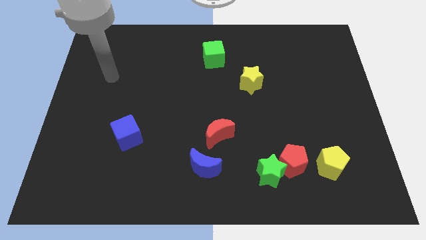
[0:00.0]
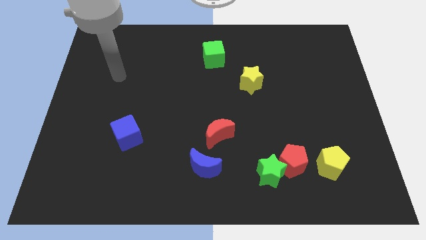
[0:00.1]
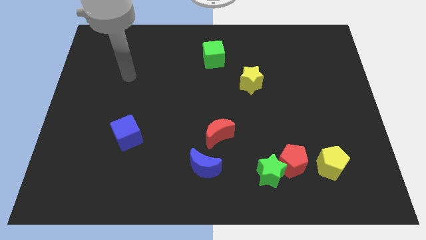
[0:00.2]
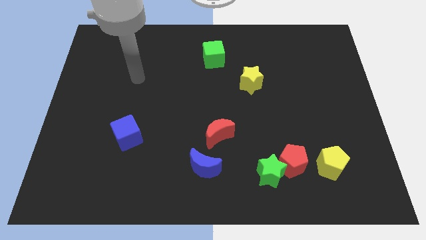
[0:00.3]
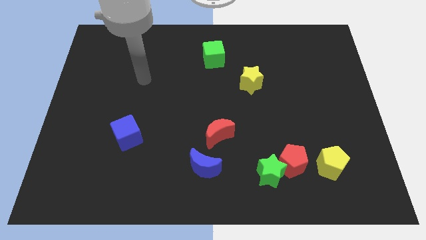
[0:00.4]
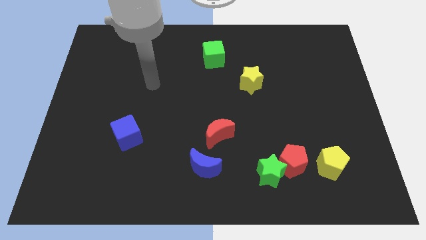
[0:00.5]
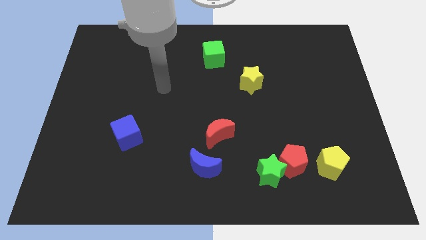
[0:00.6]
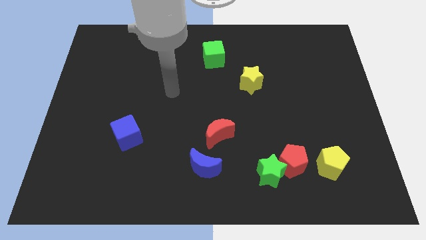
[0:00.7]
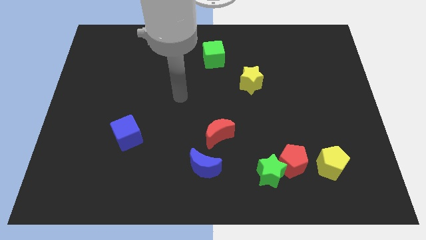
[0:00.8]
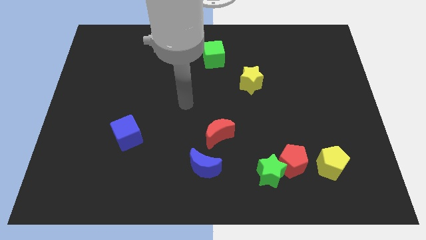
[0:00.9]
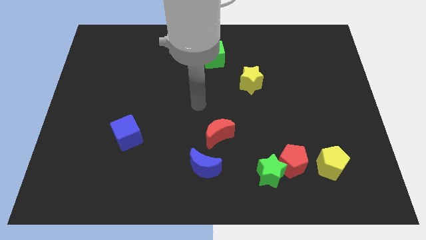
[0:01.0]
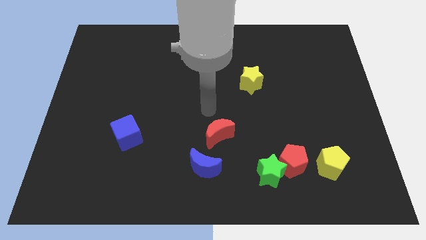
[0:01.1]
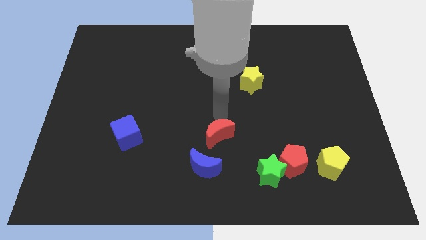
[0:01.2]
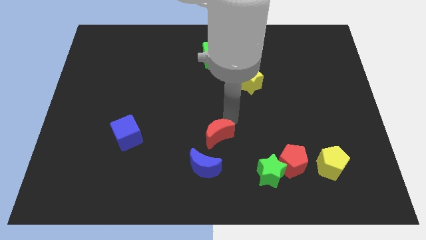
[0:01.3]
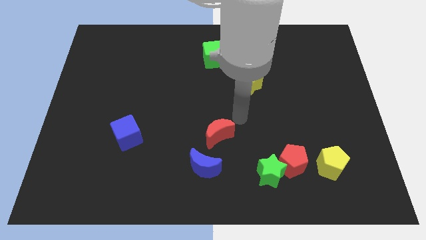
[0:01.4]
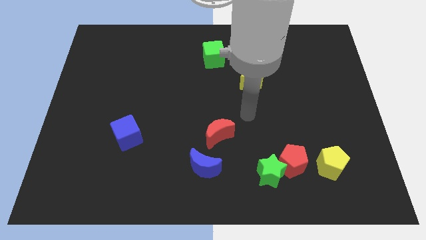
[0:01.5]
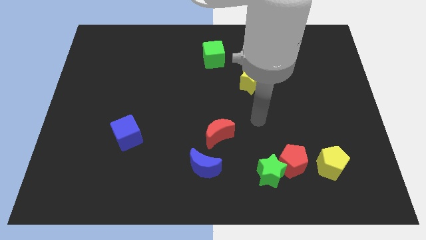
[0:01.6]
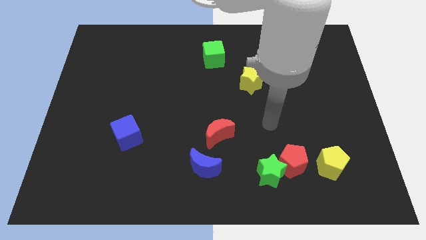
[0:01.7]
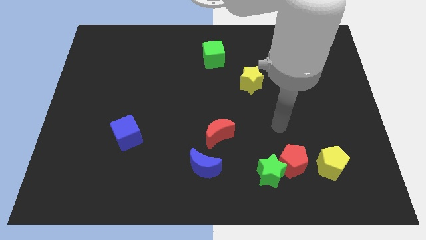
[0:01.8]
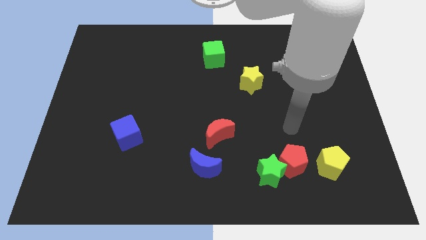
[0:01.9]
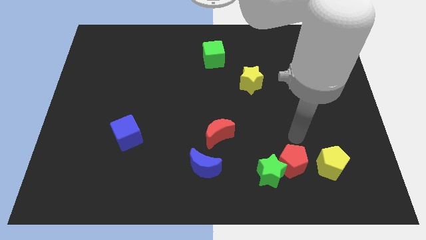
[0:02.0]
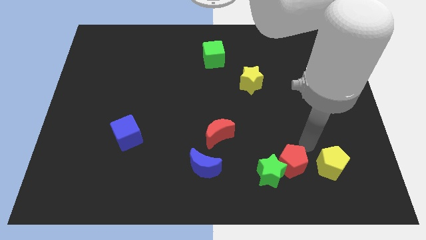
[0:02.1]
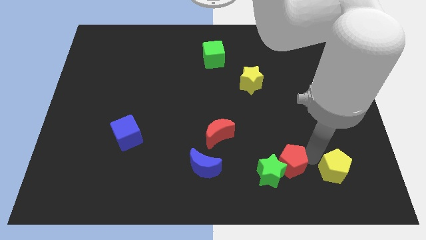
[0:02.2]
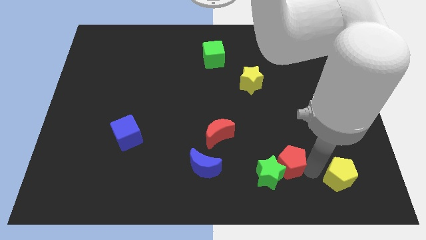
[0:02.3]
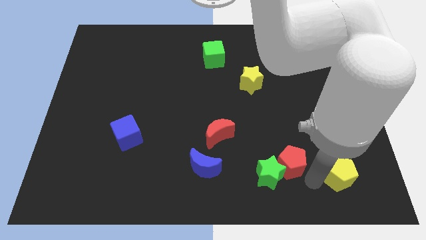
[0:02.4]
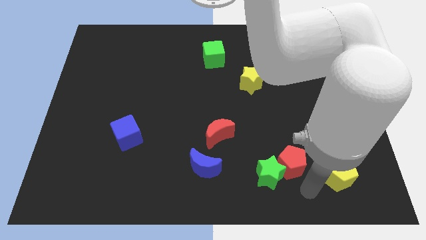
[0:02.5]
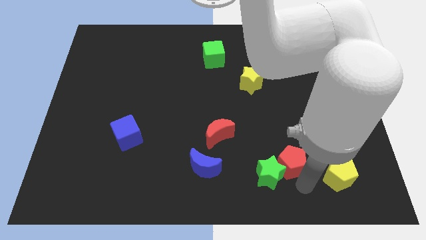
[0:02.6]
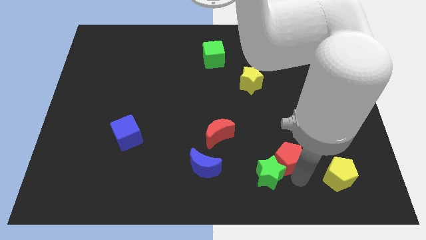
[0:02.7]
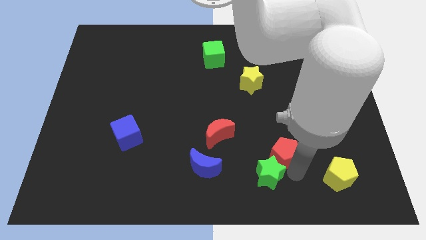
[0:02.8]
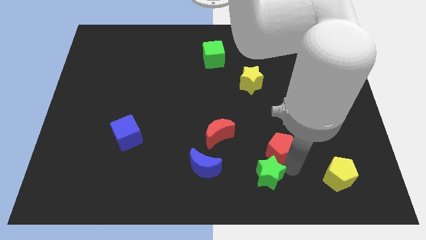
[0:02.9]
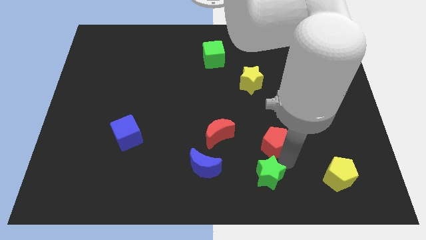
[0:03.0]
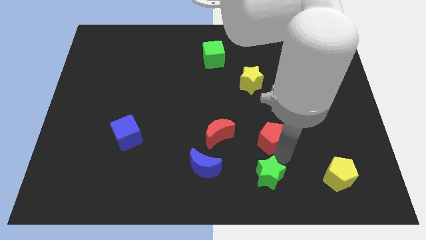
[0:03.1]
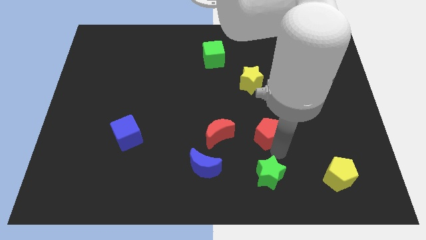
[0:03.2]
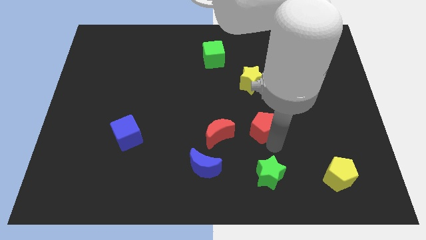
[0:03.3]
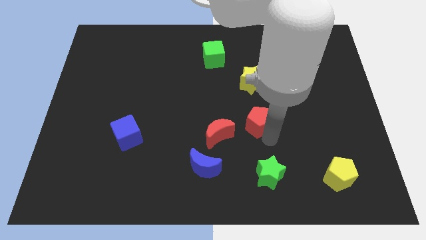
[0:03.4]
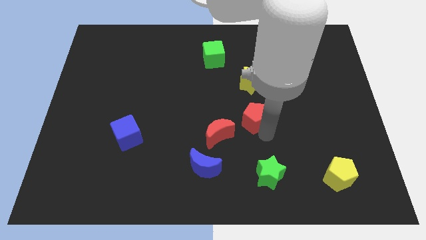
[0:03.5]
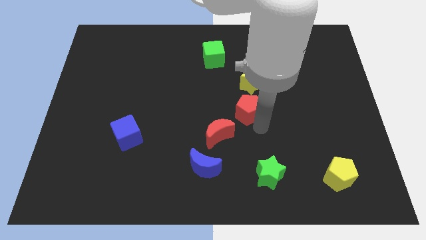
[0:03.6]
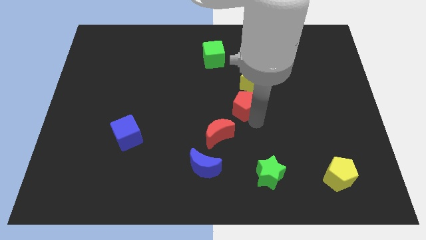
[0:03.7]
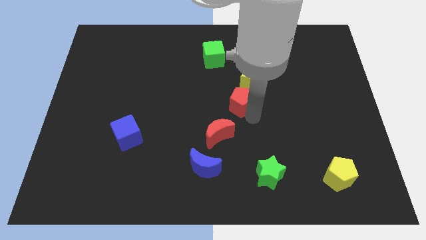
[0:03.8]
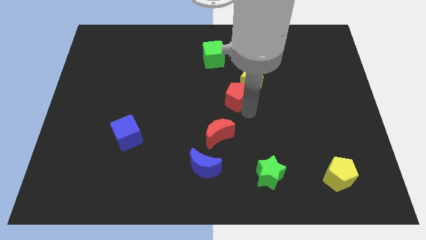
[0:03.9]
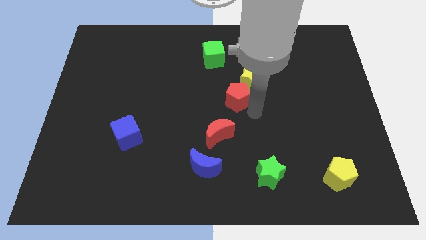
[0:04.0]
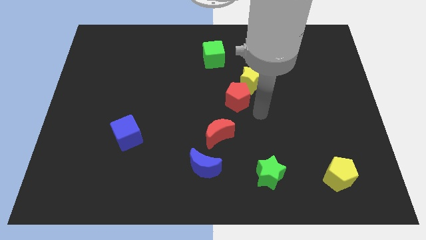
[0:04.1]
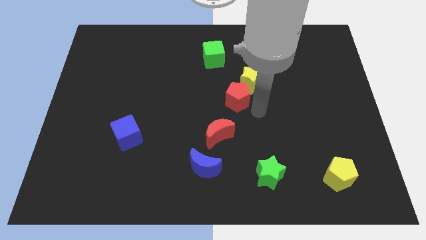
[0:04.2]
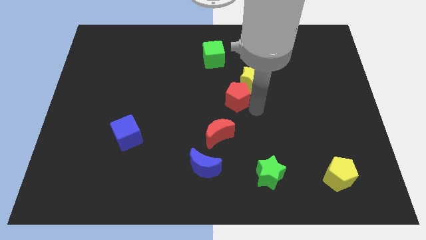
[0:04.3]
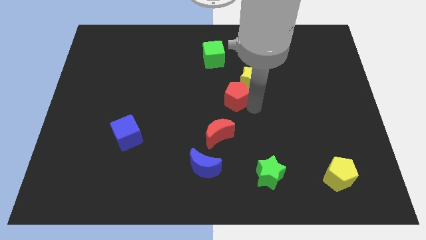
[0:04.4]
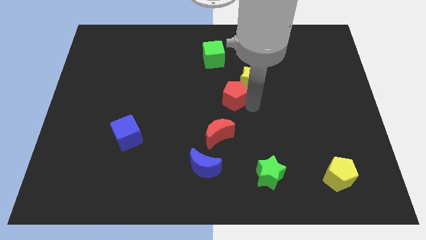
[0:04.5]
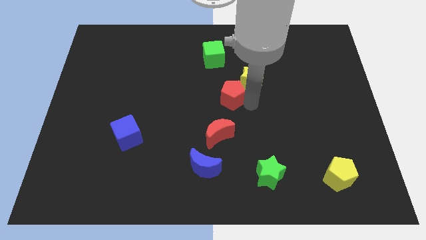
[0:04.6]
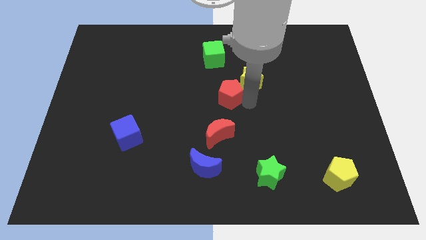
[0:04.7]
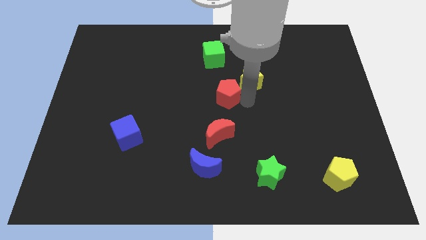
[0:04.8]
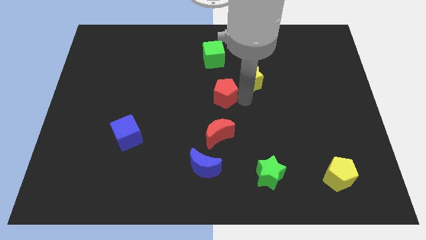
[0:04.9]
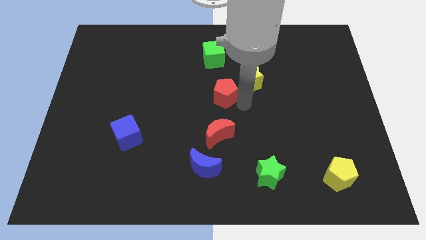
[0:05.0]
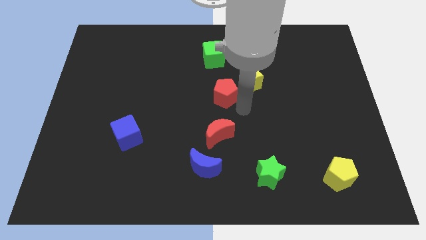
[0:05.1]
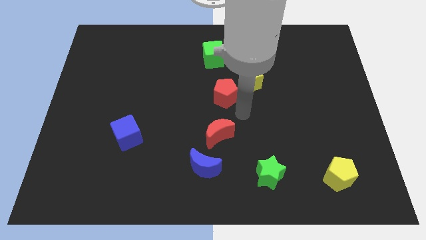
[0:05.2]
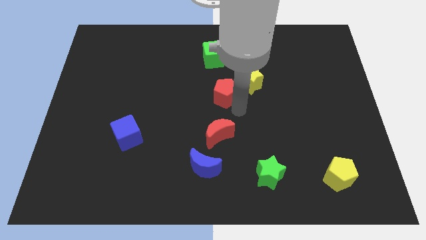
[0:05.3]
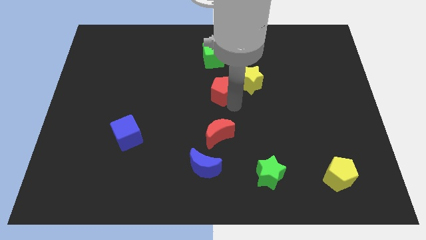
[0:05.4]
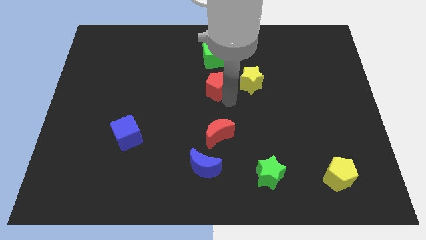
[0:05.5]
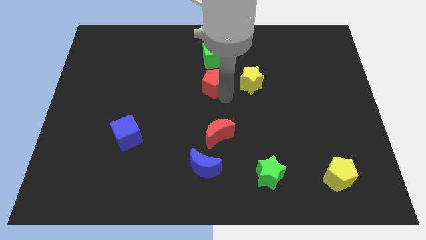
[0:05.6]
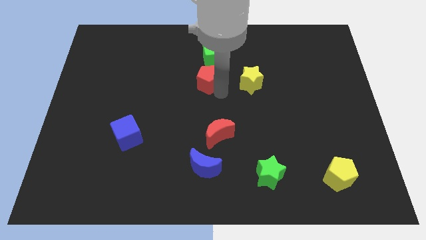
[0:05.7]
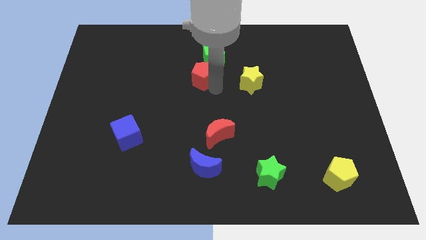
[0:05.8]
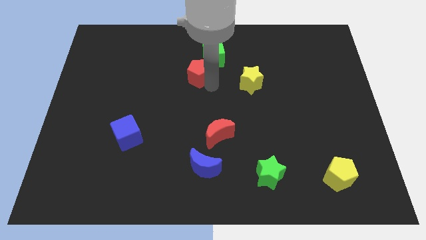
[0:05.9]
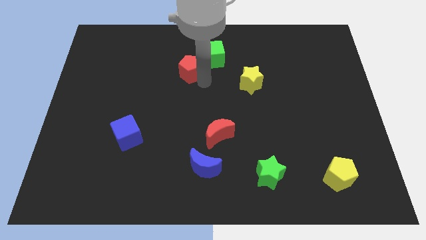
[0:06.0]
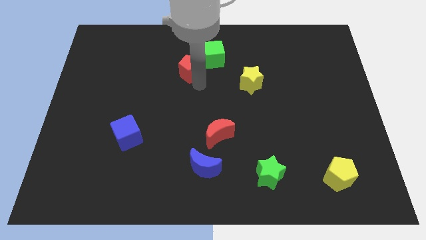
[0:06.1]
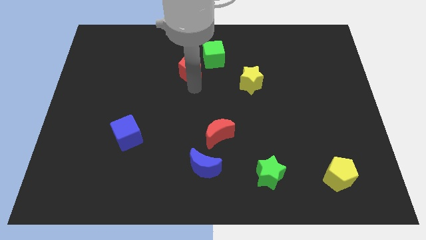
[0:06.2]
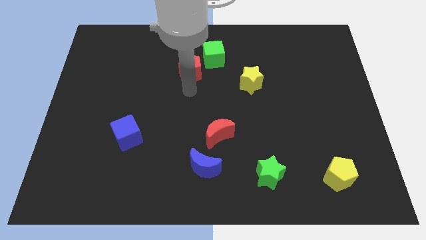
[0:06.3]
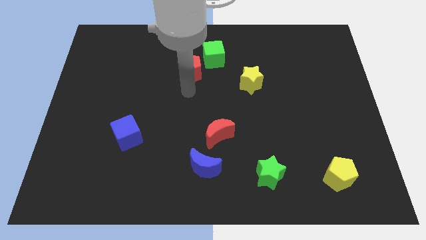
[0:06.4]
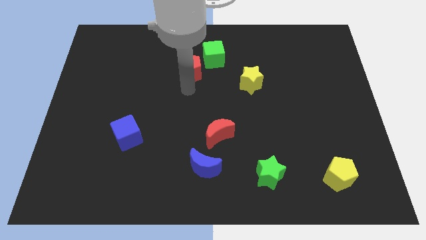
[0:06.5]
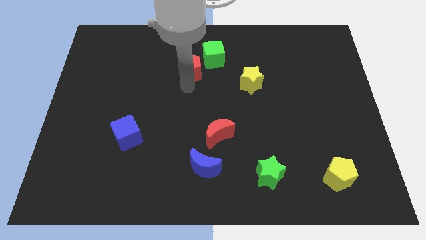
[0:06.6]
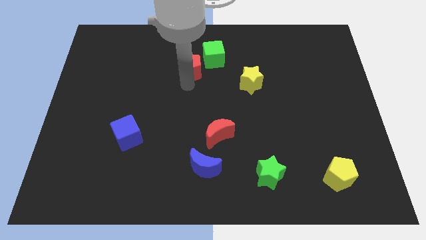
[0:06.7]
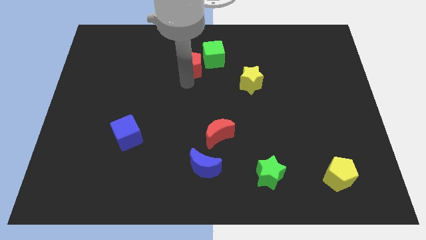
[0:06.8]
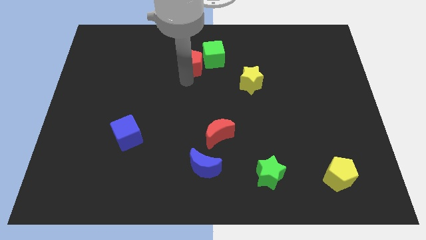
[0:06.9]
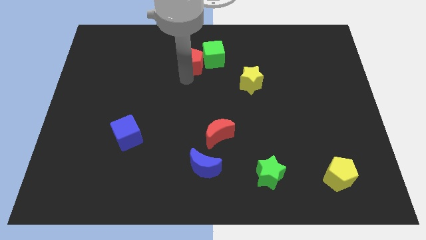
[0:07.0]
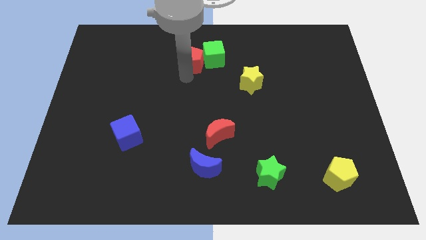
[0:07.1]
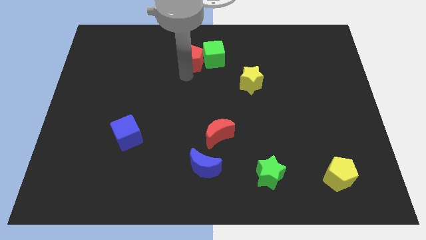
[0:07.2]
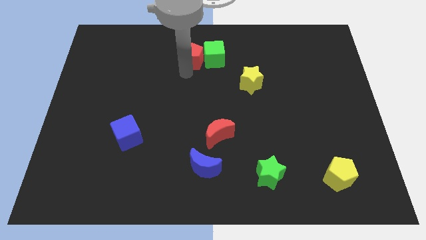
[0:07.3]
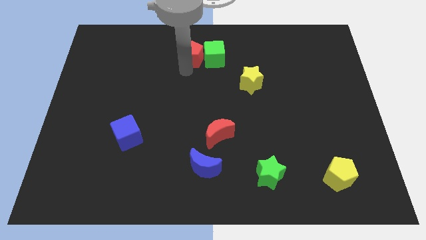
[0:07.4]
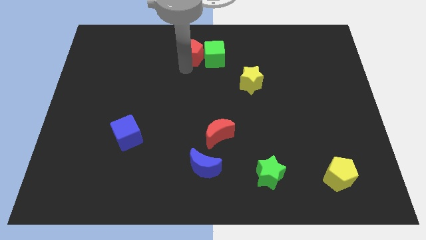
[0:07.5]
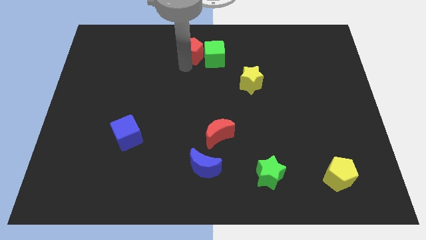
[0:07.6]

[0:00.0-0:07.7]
push the red pentagon to the top
